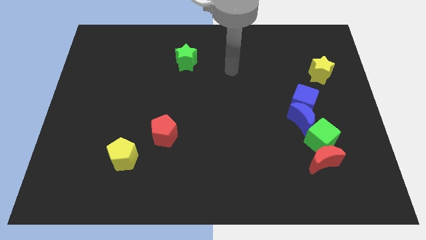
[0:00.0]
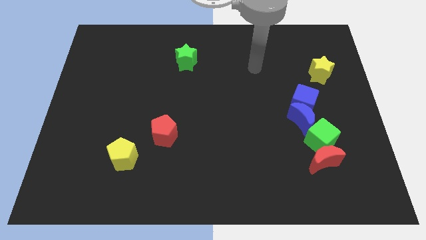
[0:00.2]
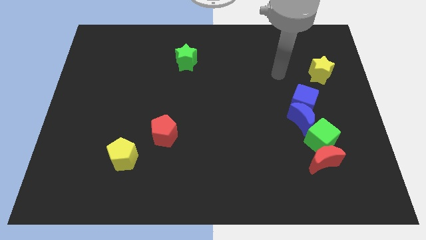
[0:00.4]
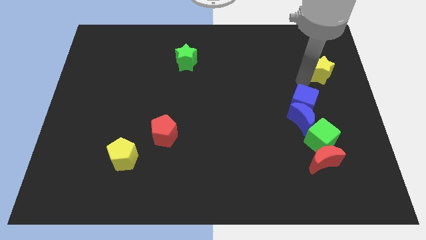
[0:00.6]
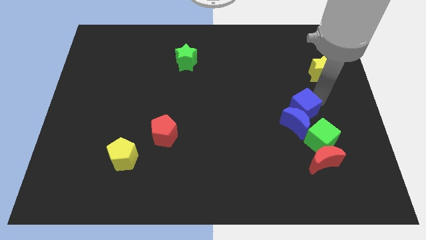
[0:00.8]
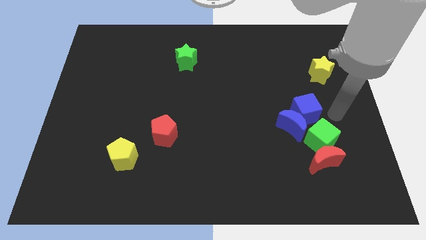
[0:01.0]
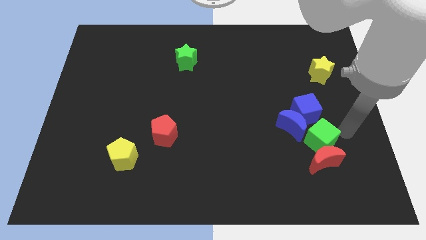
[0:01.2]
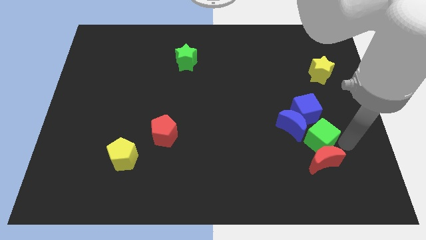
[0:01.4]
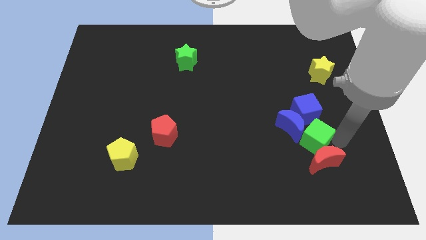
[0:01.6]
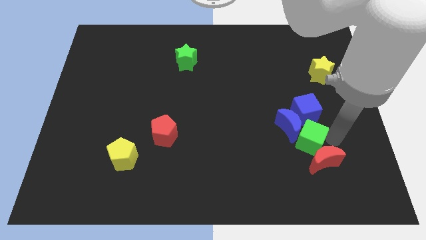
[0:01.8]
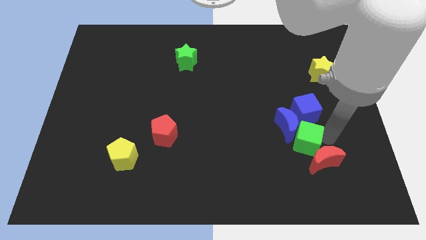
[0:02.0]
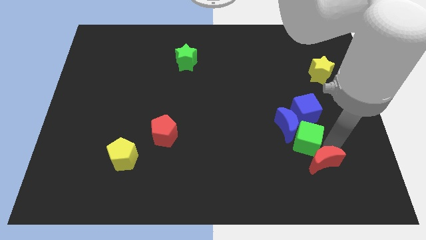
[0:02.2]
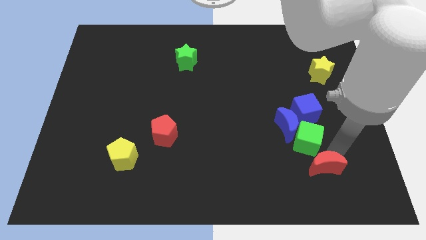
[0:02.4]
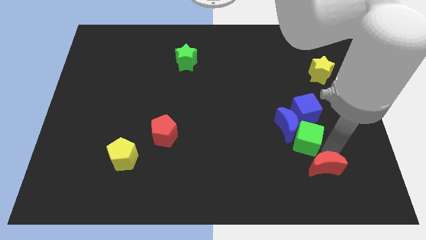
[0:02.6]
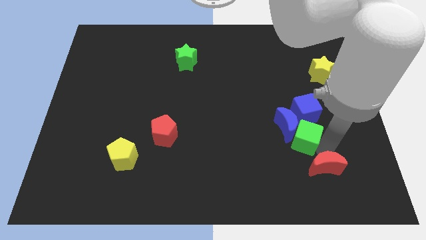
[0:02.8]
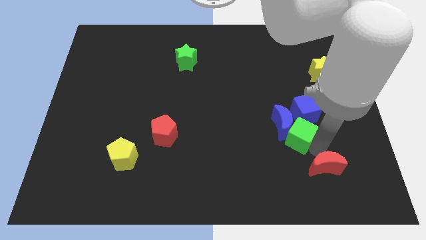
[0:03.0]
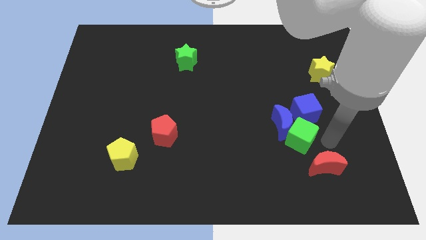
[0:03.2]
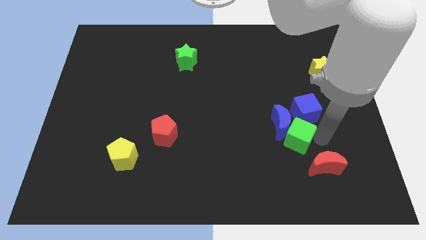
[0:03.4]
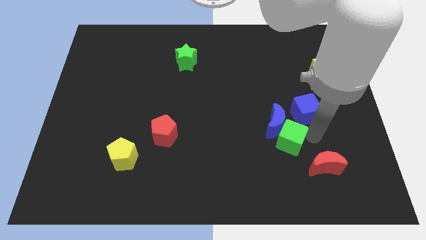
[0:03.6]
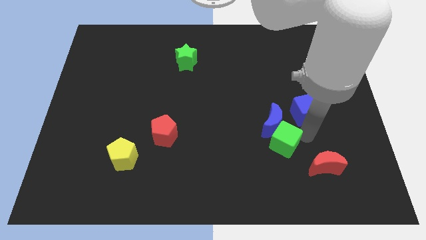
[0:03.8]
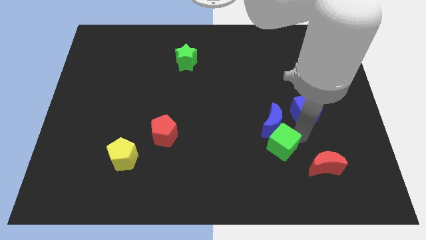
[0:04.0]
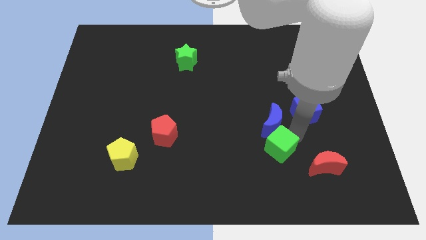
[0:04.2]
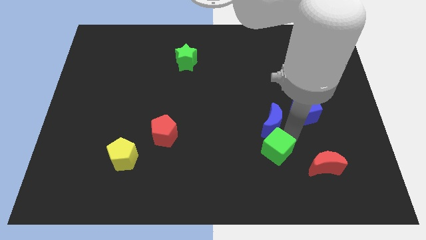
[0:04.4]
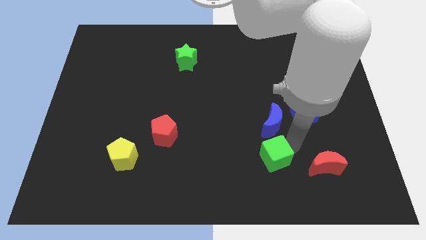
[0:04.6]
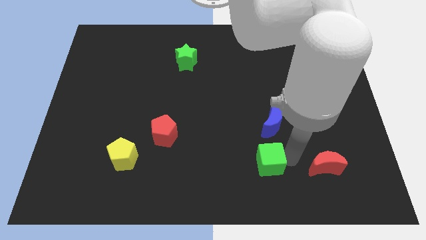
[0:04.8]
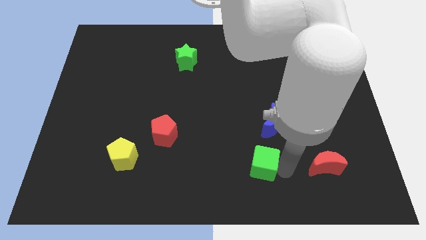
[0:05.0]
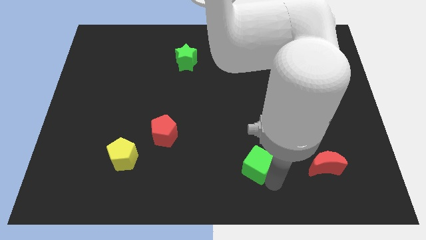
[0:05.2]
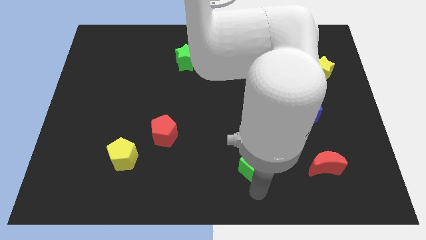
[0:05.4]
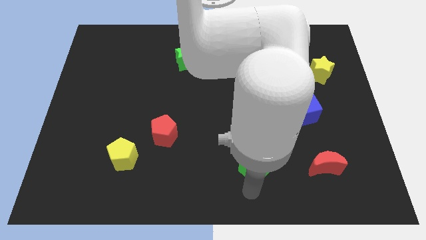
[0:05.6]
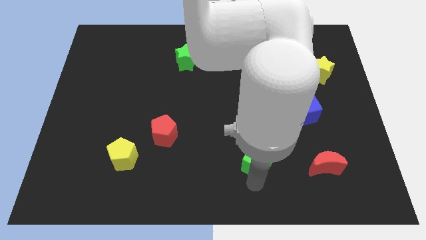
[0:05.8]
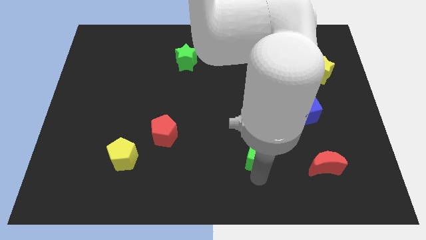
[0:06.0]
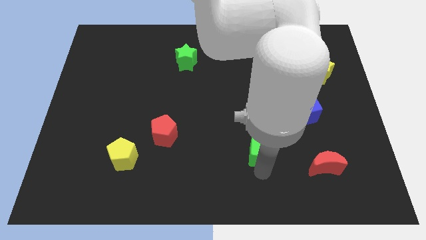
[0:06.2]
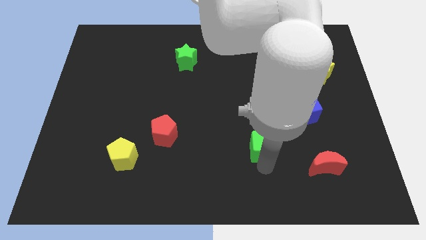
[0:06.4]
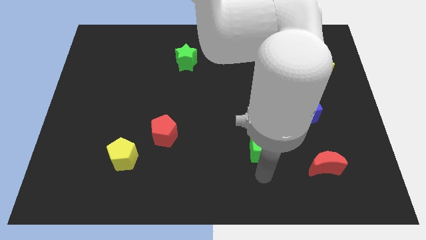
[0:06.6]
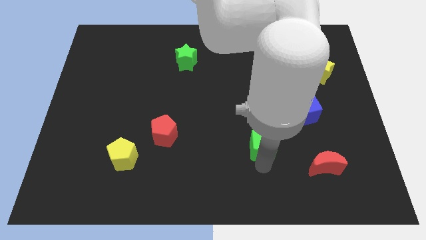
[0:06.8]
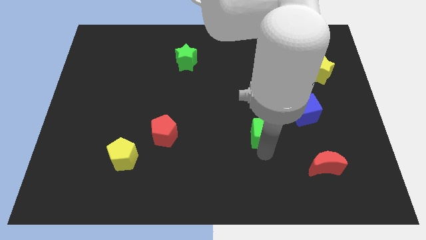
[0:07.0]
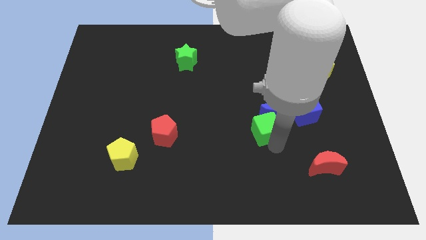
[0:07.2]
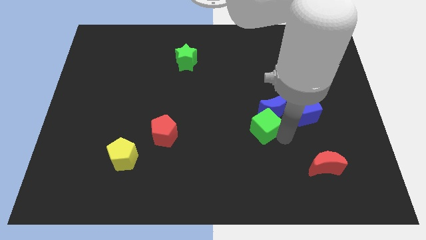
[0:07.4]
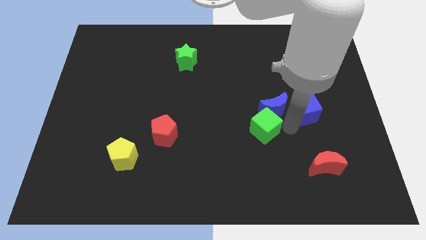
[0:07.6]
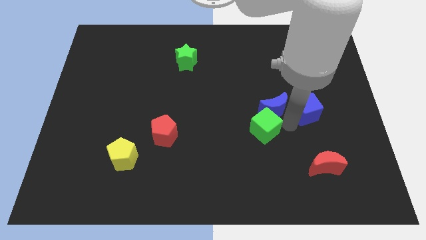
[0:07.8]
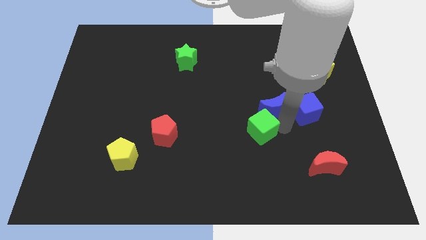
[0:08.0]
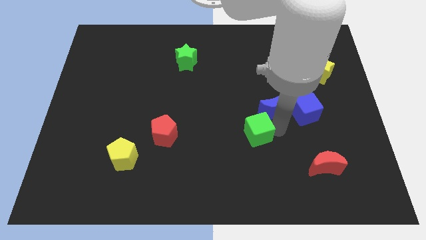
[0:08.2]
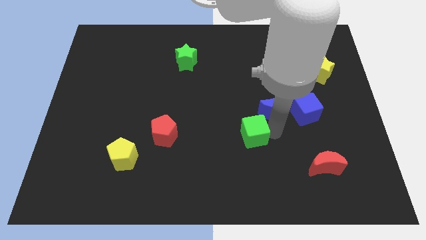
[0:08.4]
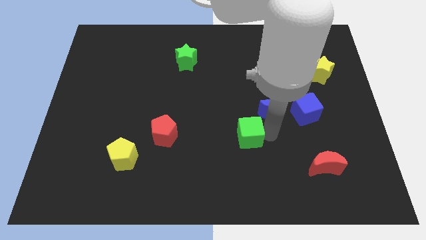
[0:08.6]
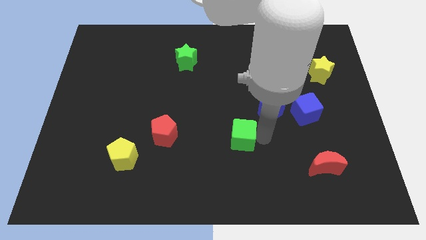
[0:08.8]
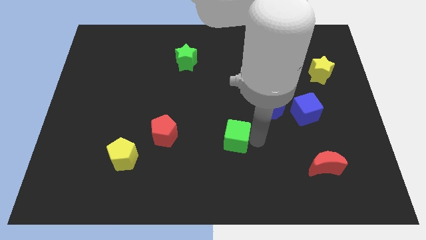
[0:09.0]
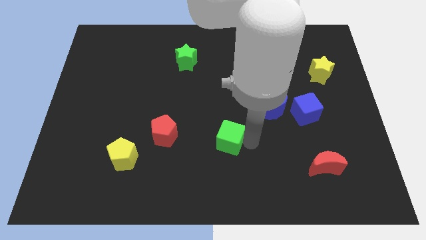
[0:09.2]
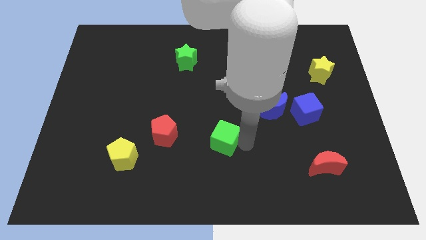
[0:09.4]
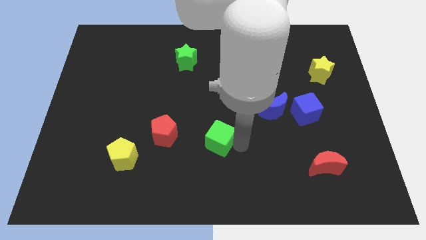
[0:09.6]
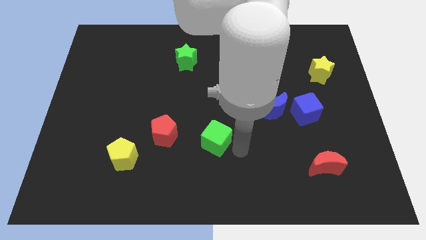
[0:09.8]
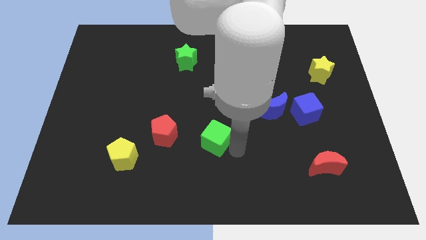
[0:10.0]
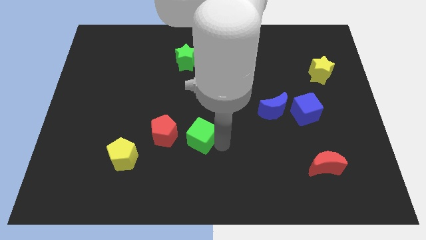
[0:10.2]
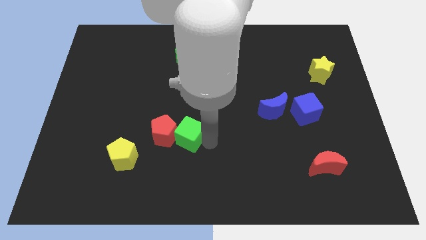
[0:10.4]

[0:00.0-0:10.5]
put the green cube close to the red pentagon

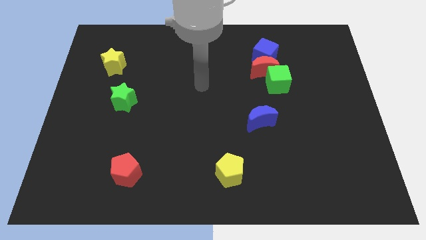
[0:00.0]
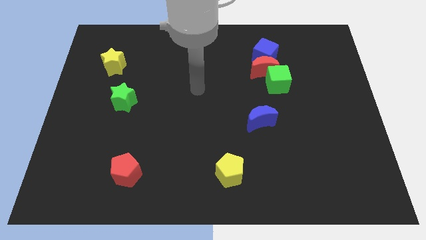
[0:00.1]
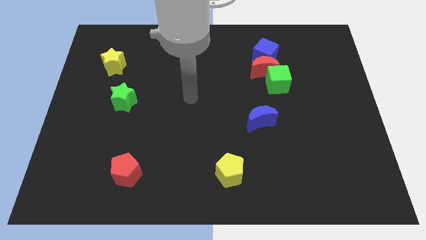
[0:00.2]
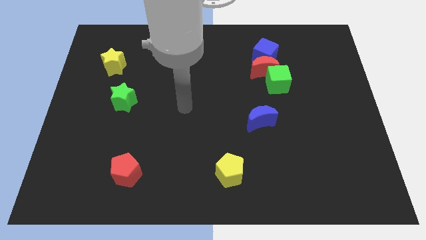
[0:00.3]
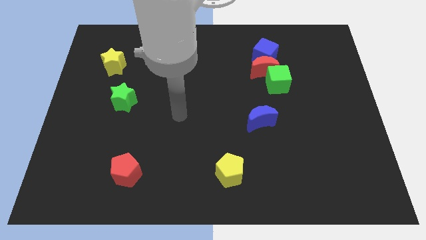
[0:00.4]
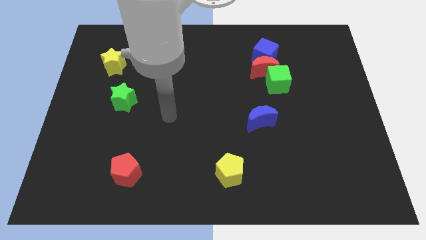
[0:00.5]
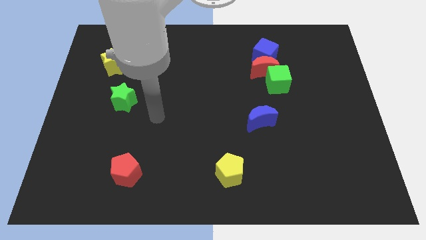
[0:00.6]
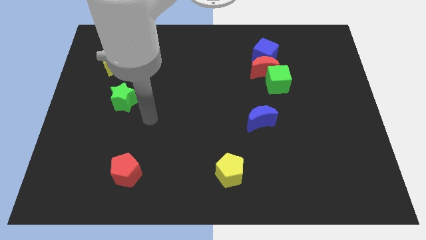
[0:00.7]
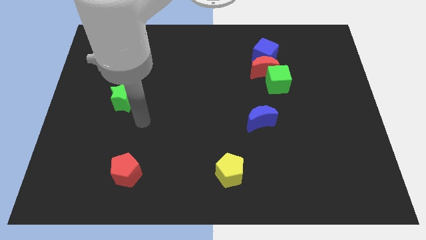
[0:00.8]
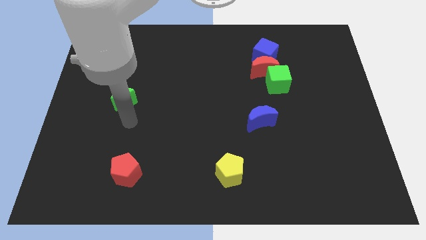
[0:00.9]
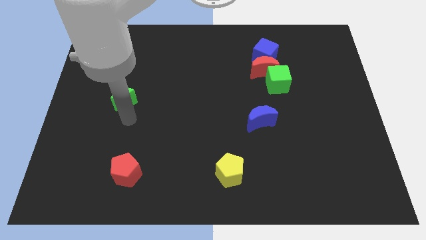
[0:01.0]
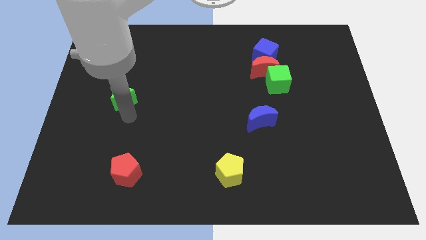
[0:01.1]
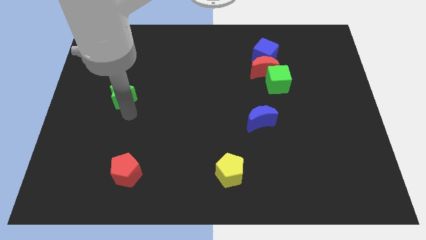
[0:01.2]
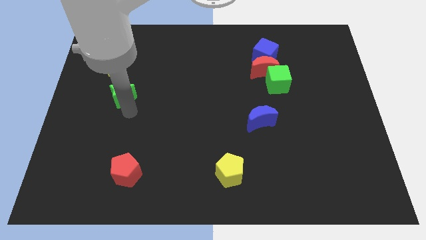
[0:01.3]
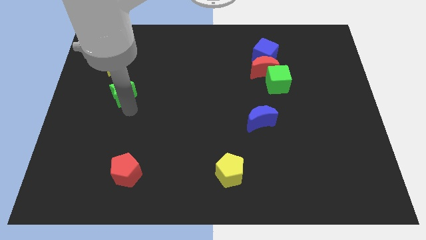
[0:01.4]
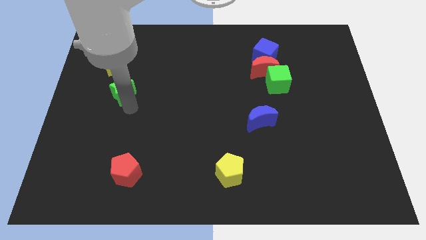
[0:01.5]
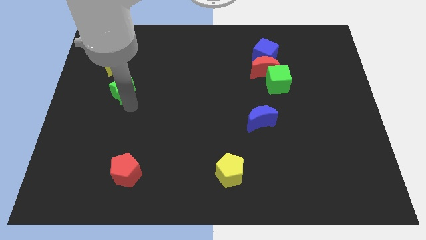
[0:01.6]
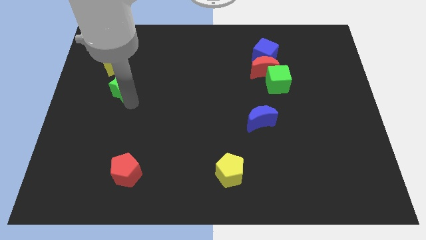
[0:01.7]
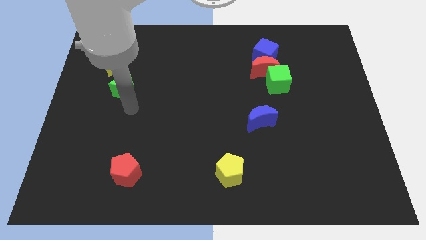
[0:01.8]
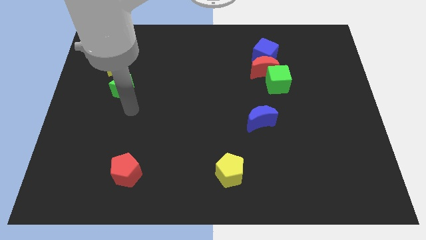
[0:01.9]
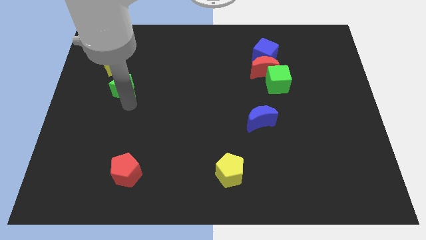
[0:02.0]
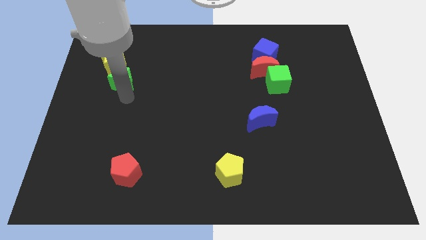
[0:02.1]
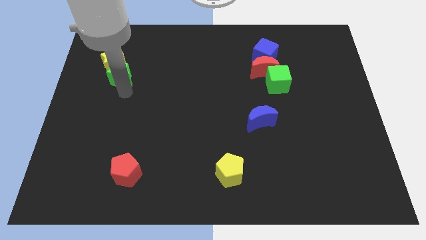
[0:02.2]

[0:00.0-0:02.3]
push the green star to the yellow star

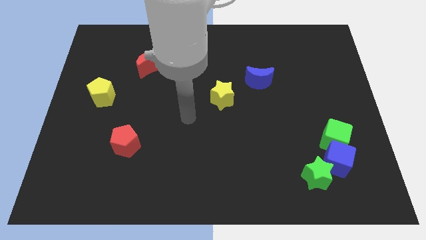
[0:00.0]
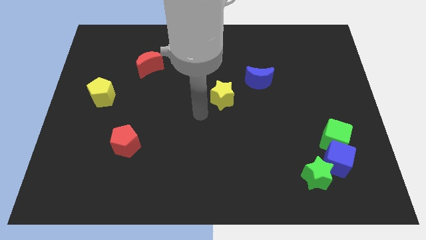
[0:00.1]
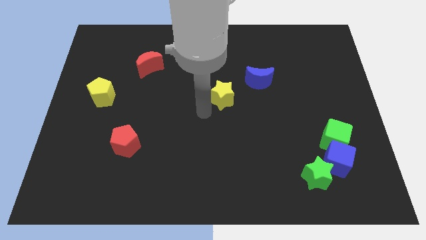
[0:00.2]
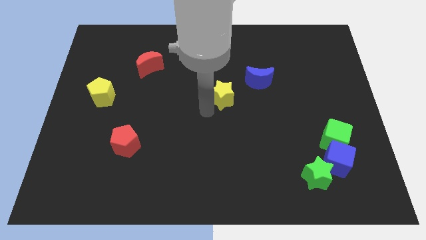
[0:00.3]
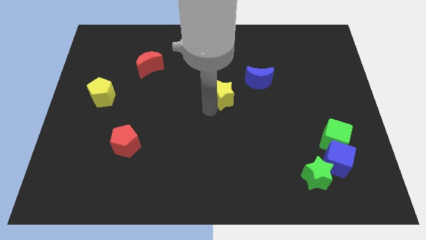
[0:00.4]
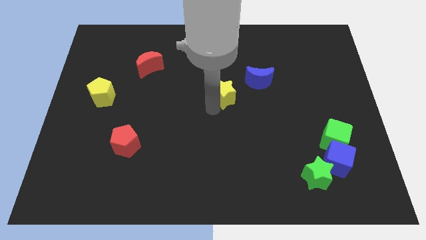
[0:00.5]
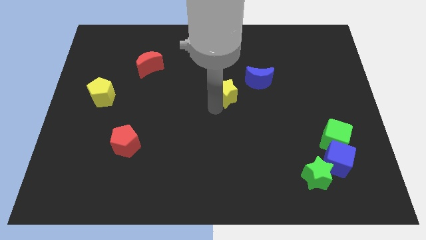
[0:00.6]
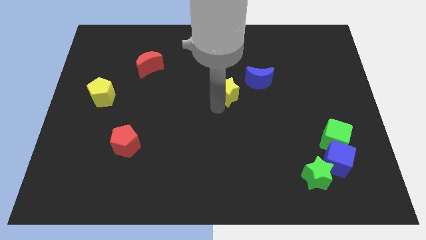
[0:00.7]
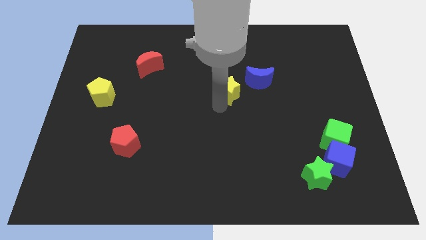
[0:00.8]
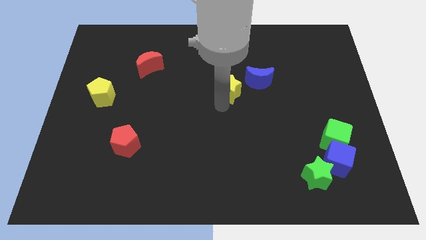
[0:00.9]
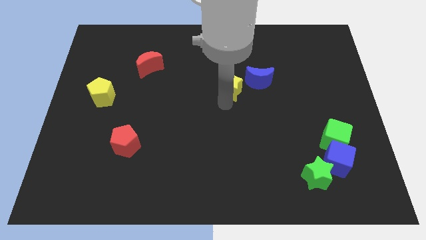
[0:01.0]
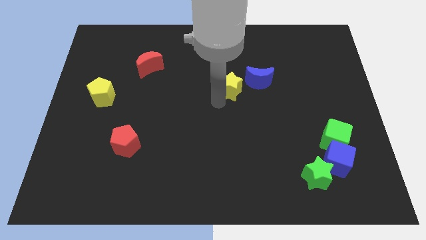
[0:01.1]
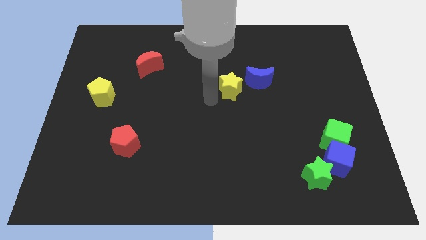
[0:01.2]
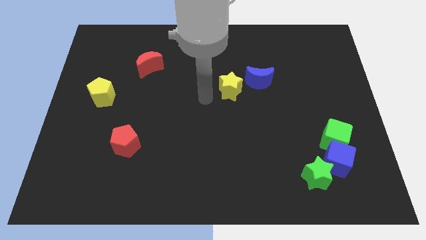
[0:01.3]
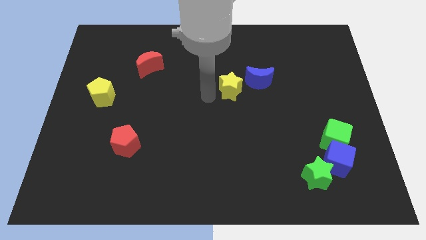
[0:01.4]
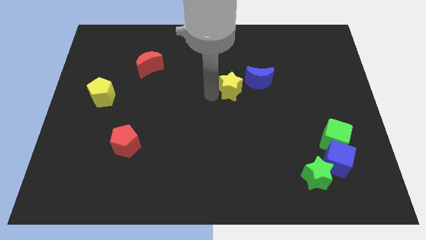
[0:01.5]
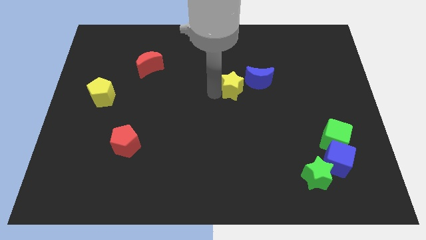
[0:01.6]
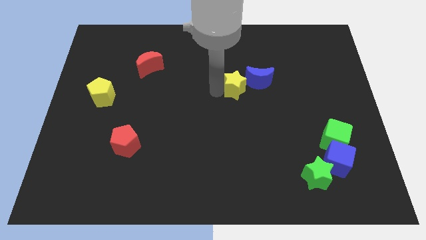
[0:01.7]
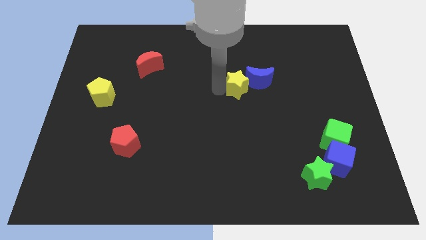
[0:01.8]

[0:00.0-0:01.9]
slide the yellow star to the blue moon
